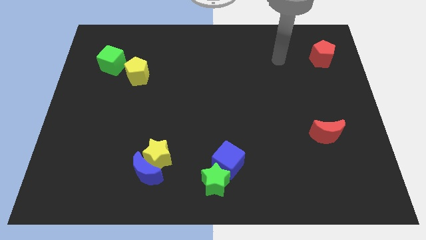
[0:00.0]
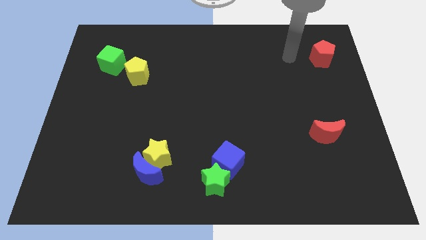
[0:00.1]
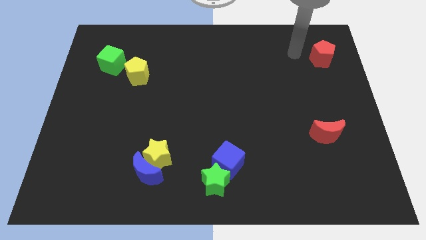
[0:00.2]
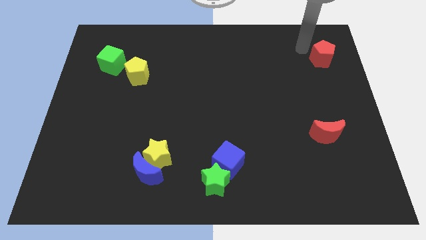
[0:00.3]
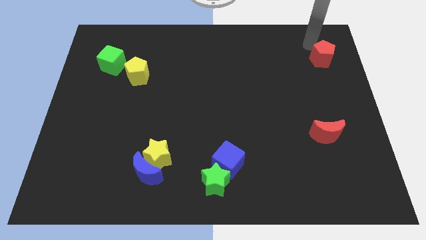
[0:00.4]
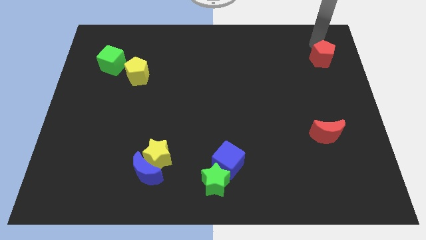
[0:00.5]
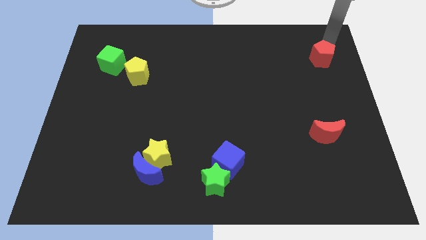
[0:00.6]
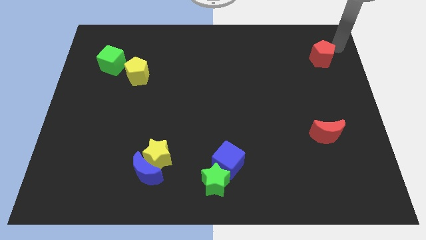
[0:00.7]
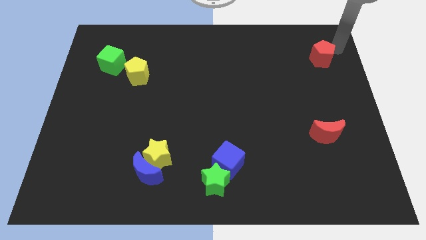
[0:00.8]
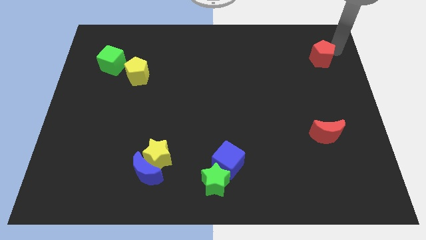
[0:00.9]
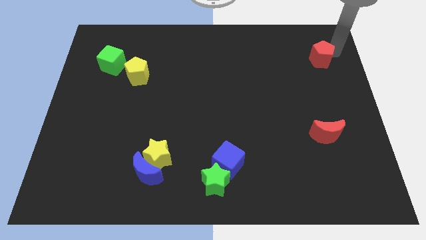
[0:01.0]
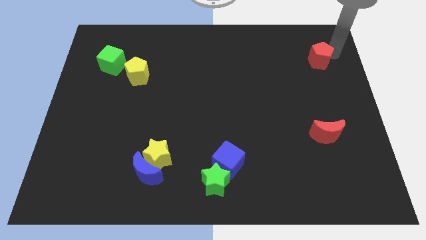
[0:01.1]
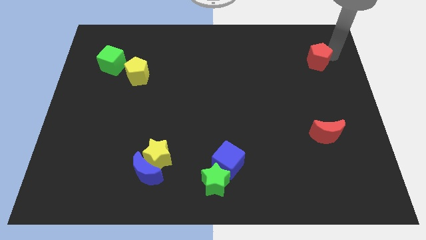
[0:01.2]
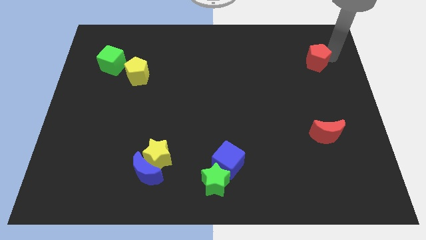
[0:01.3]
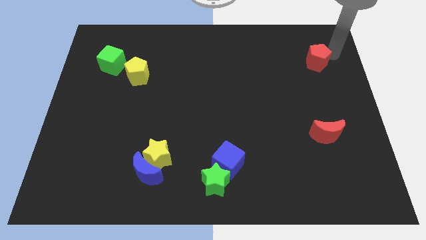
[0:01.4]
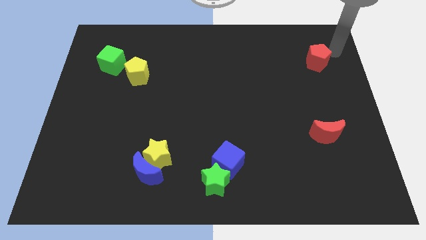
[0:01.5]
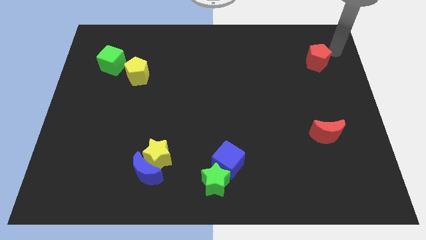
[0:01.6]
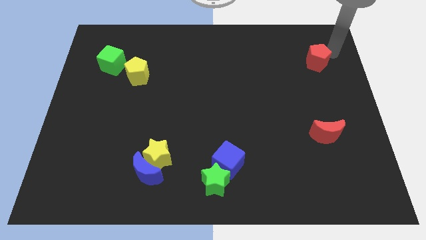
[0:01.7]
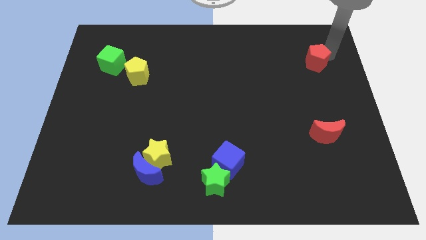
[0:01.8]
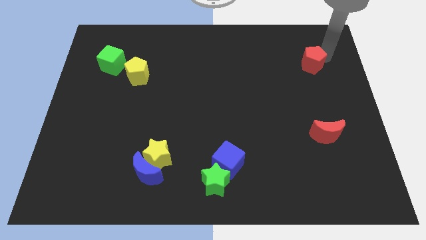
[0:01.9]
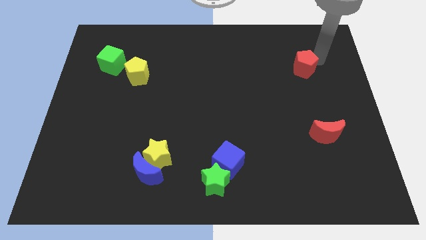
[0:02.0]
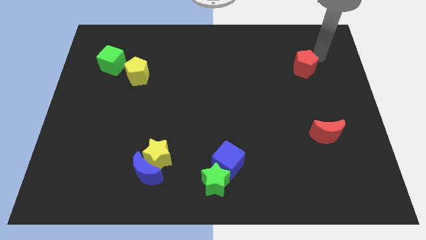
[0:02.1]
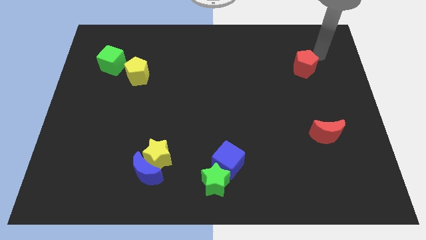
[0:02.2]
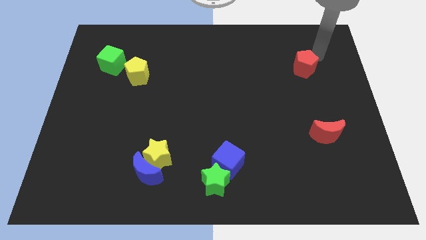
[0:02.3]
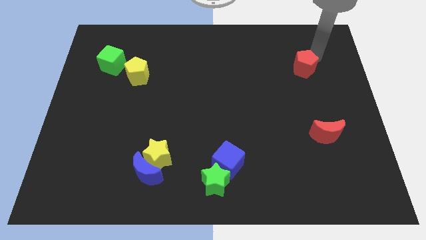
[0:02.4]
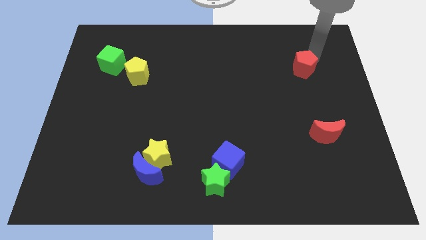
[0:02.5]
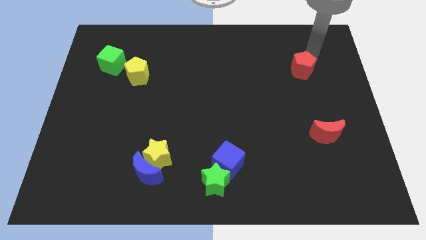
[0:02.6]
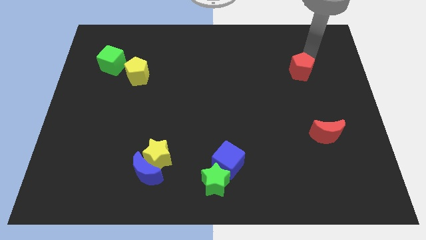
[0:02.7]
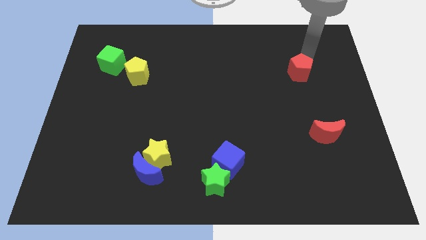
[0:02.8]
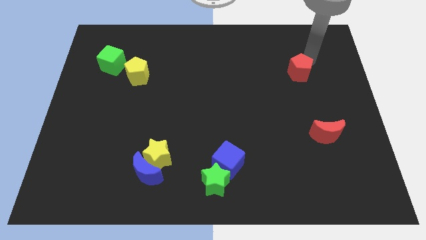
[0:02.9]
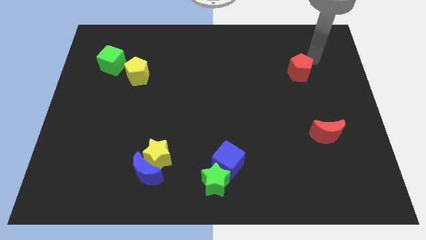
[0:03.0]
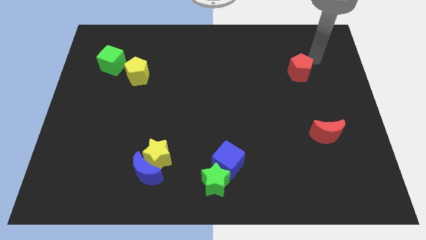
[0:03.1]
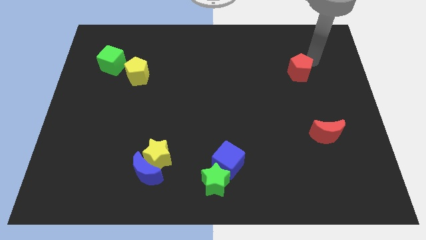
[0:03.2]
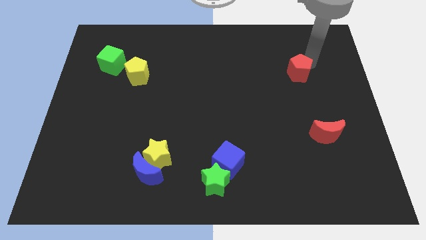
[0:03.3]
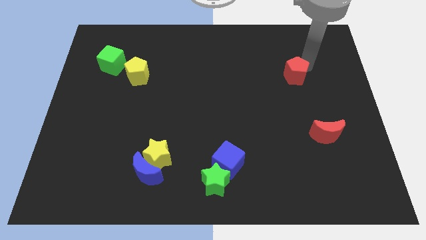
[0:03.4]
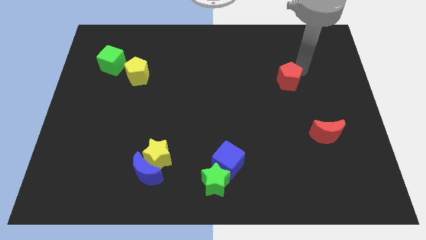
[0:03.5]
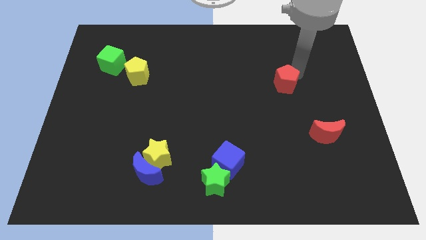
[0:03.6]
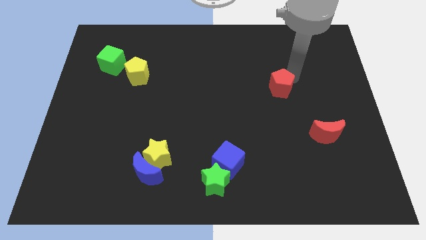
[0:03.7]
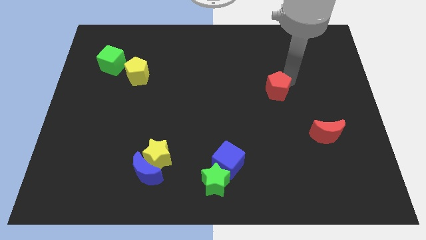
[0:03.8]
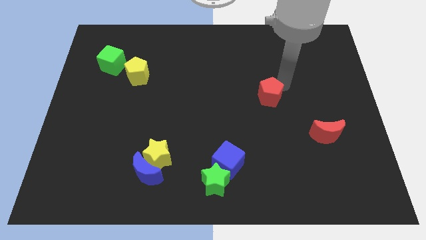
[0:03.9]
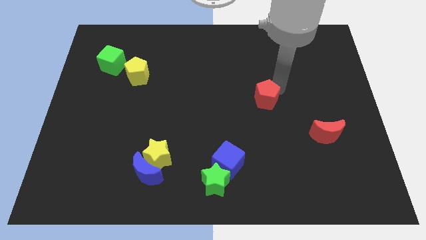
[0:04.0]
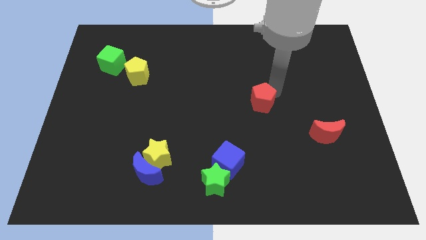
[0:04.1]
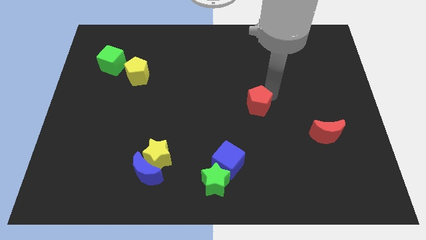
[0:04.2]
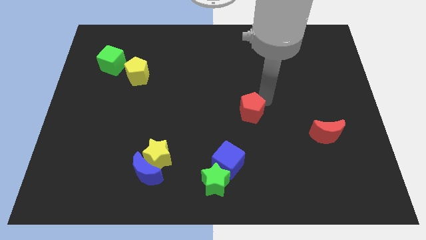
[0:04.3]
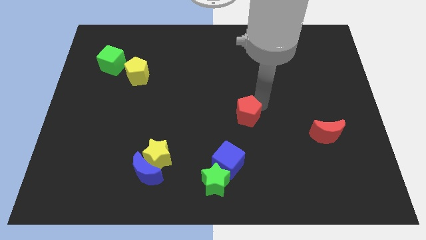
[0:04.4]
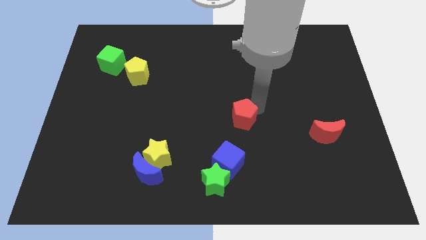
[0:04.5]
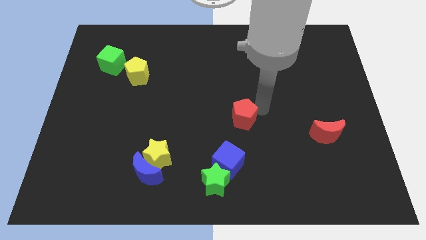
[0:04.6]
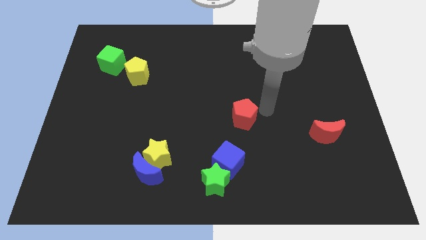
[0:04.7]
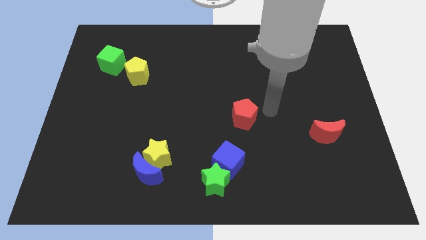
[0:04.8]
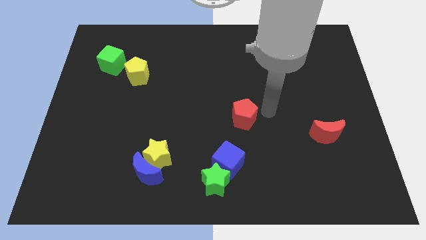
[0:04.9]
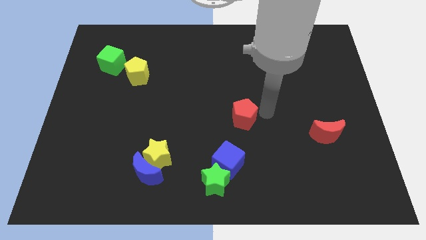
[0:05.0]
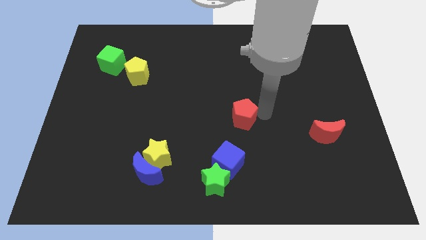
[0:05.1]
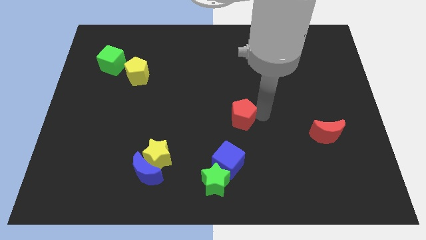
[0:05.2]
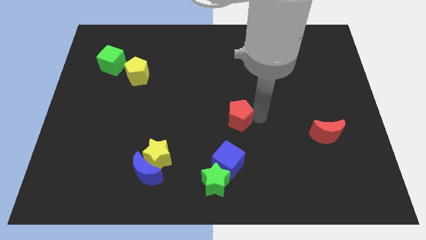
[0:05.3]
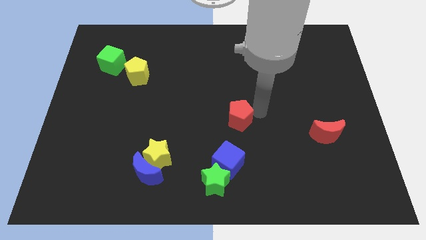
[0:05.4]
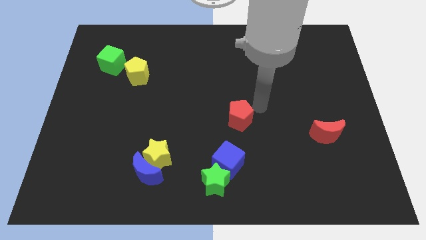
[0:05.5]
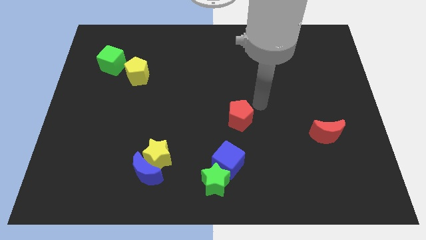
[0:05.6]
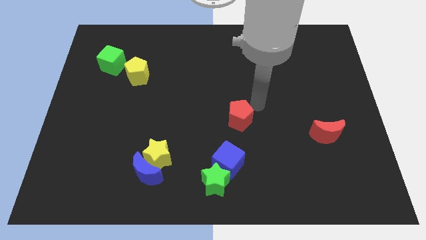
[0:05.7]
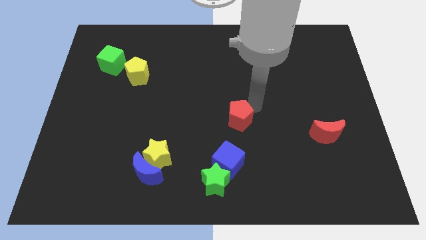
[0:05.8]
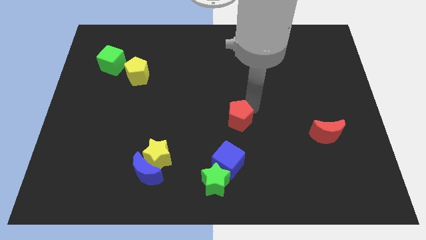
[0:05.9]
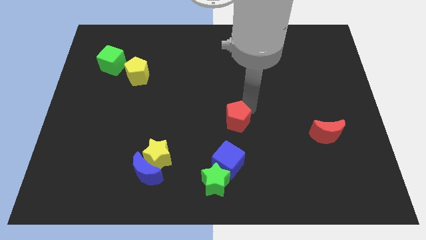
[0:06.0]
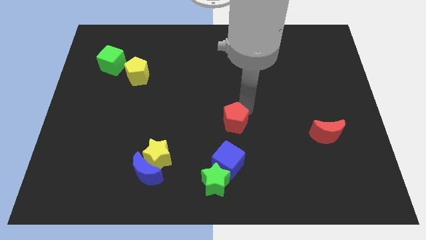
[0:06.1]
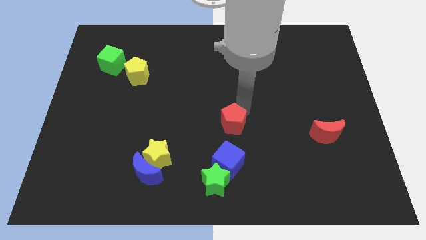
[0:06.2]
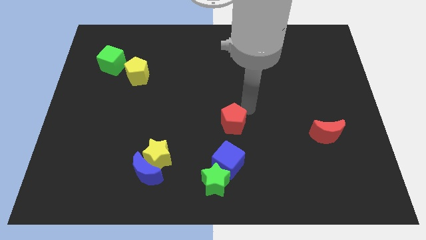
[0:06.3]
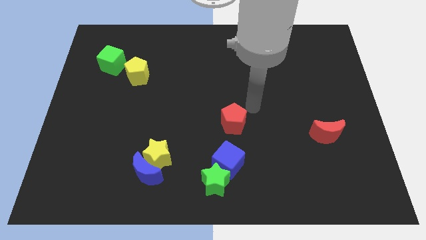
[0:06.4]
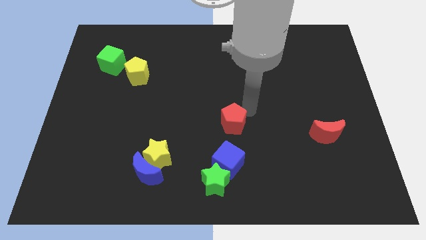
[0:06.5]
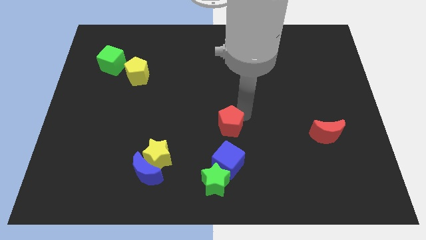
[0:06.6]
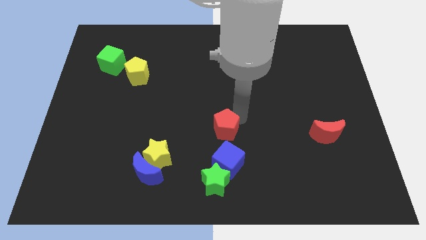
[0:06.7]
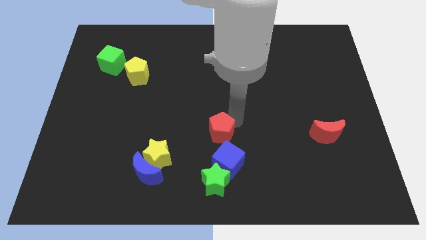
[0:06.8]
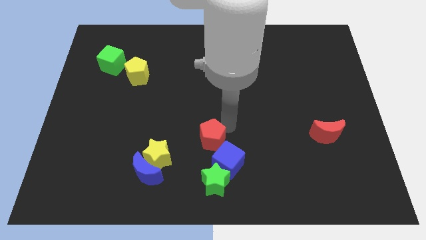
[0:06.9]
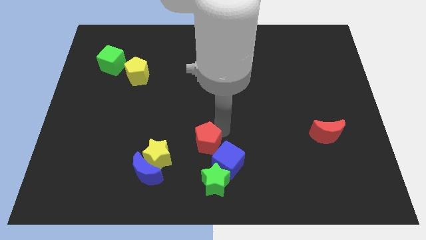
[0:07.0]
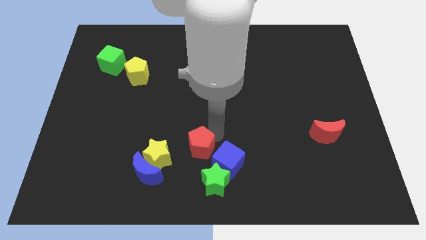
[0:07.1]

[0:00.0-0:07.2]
move the red pentagon to the top left side of the green star
